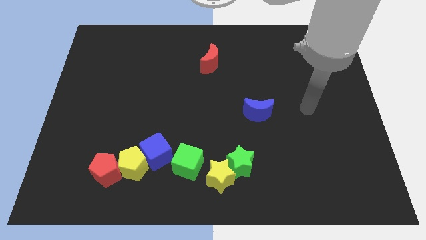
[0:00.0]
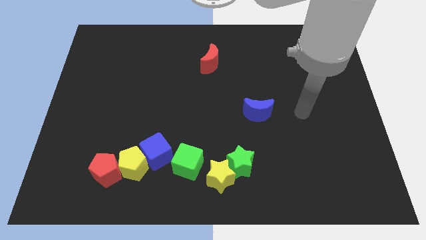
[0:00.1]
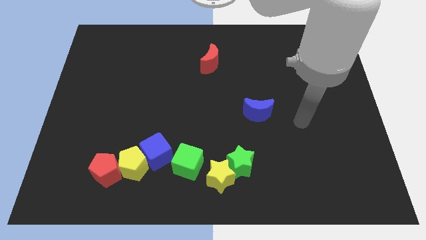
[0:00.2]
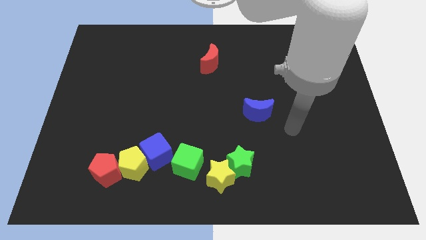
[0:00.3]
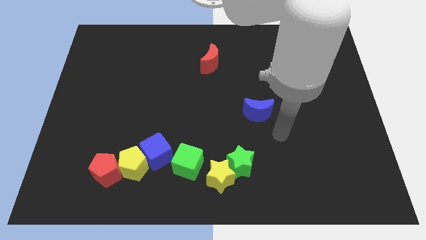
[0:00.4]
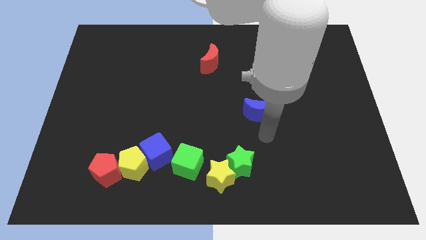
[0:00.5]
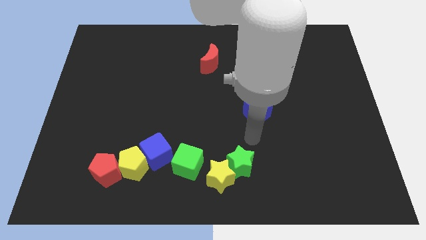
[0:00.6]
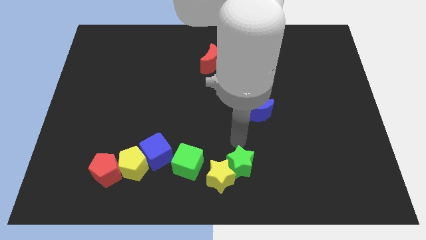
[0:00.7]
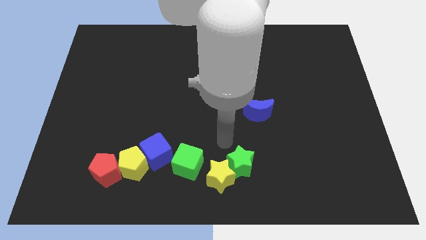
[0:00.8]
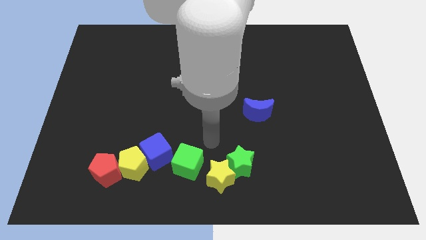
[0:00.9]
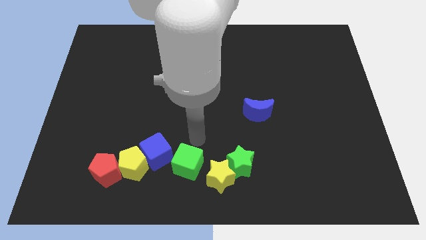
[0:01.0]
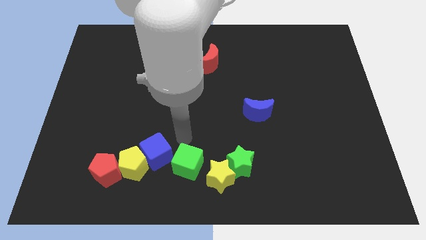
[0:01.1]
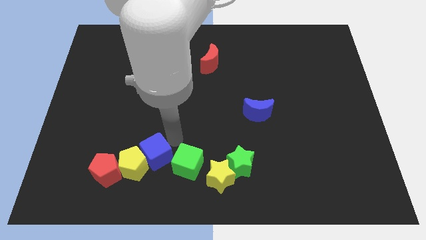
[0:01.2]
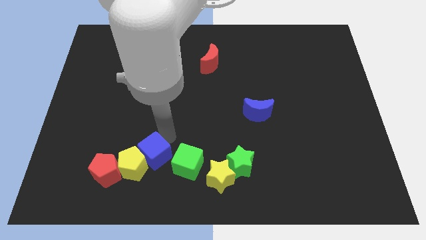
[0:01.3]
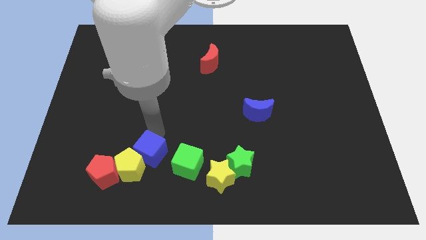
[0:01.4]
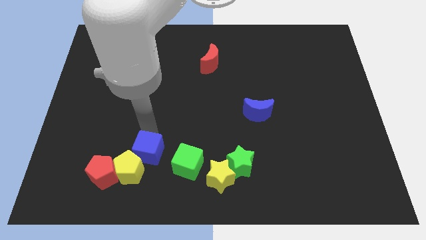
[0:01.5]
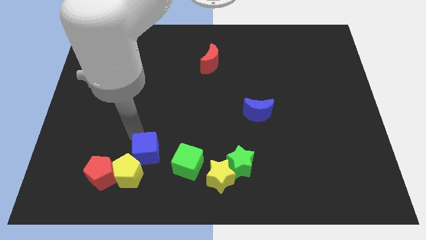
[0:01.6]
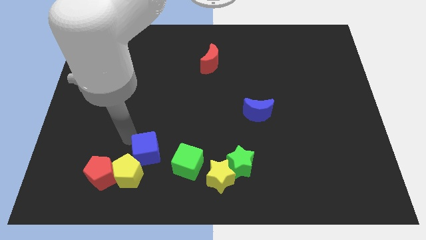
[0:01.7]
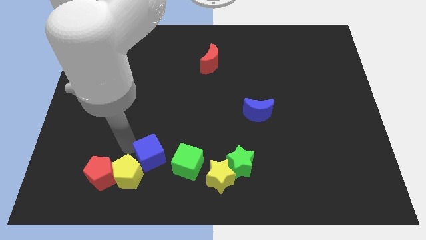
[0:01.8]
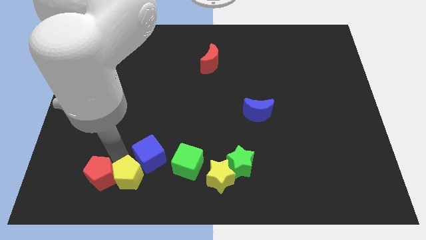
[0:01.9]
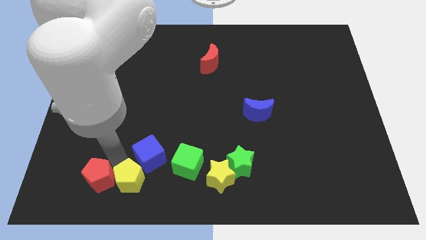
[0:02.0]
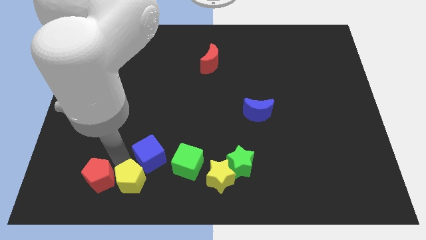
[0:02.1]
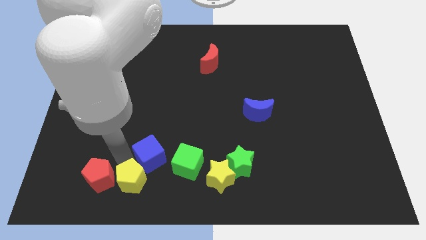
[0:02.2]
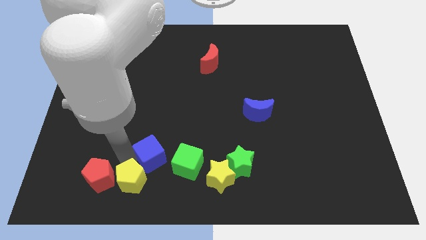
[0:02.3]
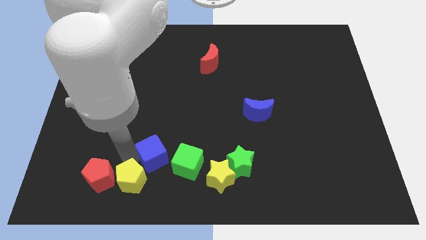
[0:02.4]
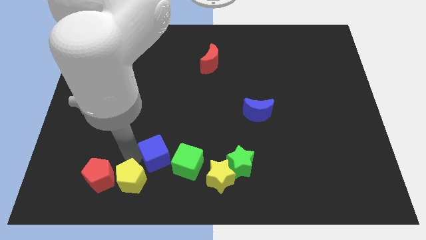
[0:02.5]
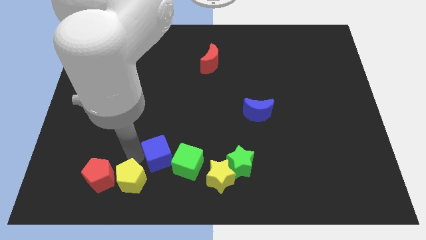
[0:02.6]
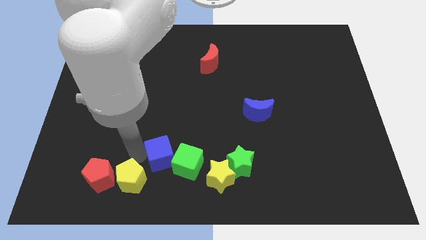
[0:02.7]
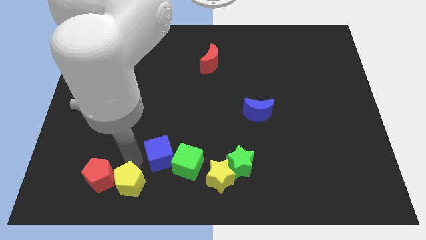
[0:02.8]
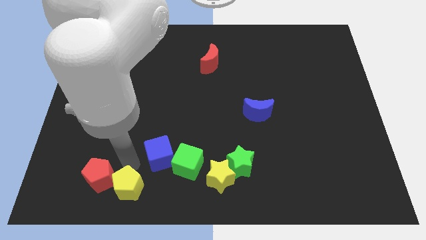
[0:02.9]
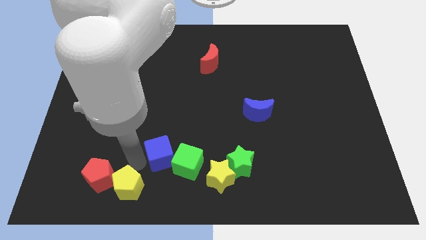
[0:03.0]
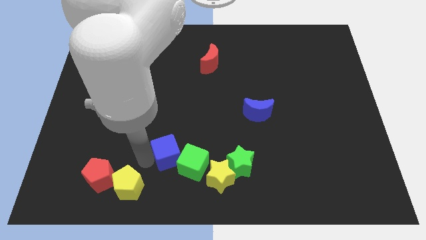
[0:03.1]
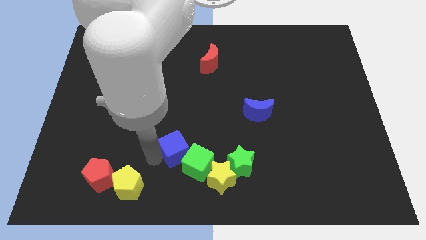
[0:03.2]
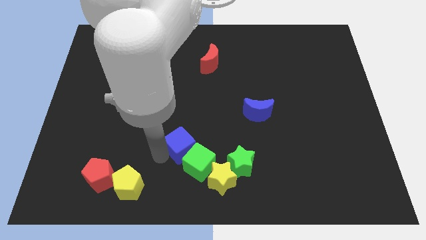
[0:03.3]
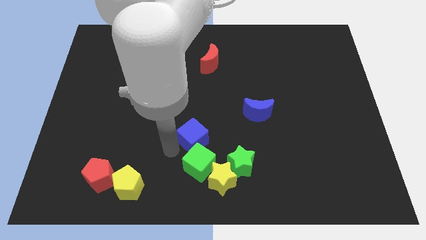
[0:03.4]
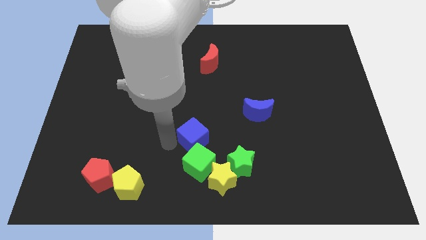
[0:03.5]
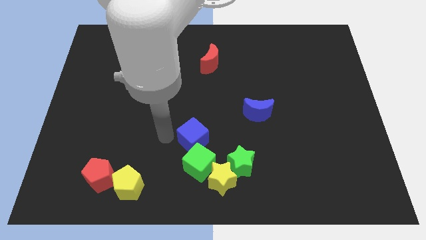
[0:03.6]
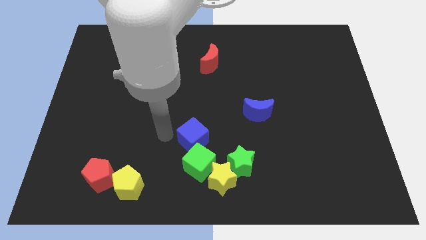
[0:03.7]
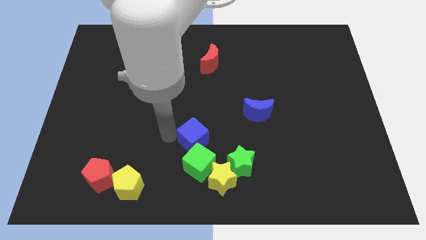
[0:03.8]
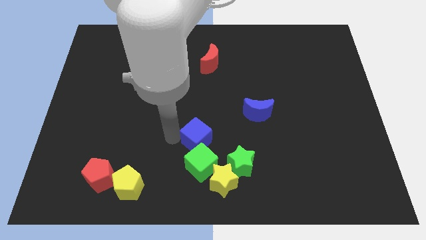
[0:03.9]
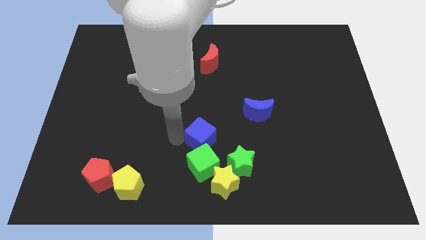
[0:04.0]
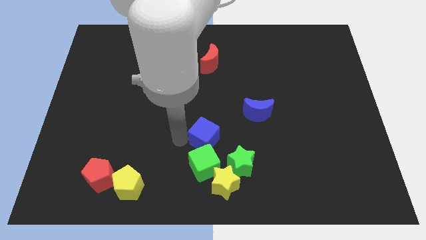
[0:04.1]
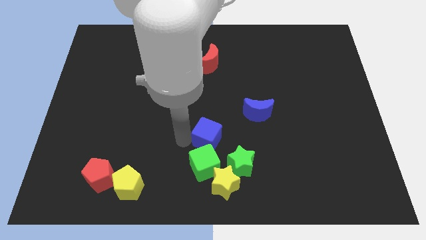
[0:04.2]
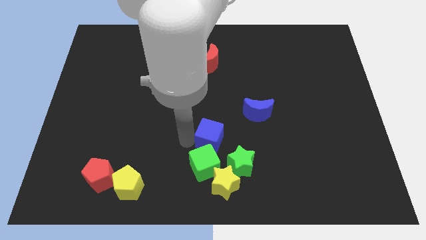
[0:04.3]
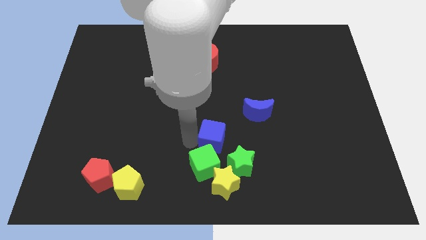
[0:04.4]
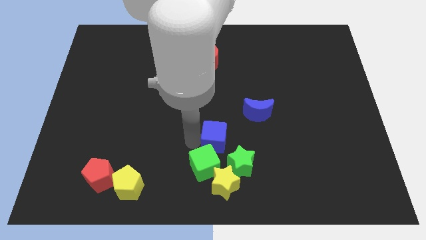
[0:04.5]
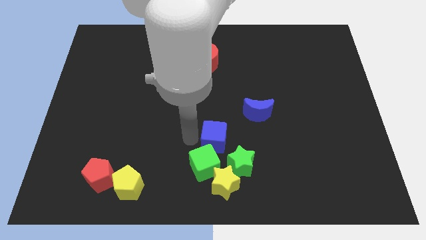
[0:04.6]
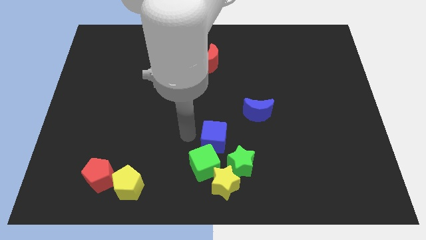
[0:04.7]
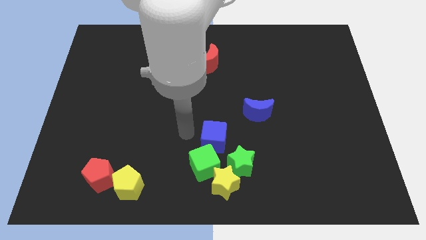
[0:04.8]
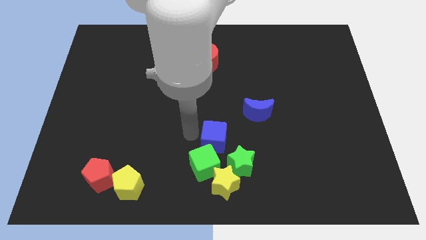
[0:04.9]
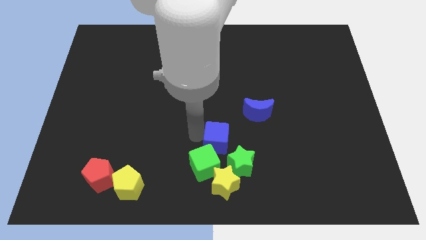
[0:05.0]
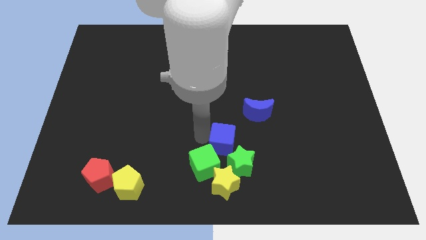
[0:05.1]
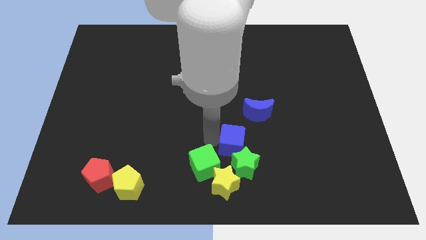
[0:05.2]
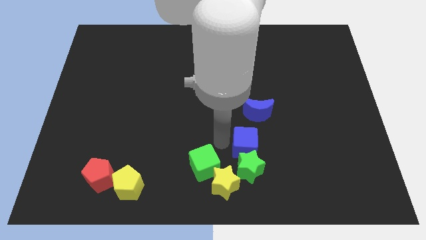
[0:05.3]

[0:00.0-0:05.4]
move the blue cube to the top right side of the green star

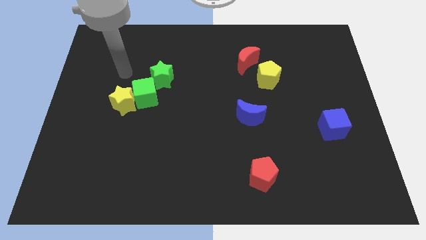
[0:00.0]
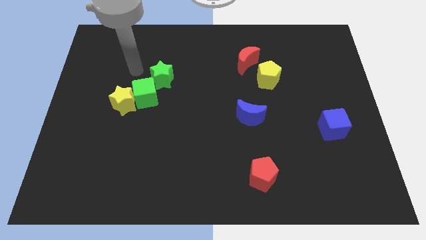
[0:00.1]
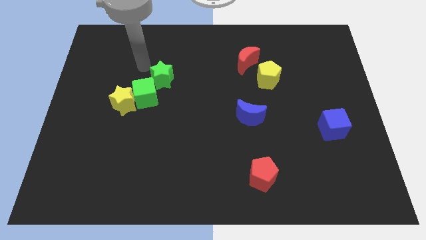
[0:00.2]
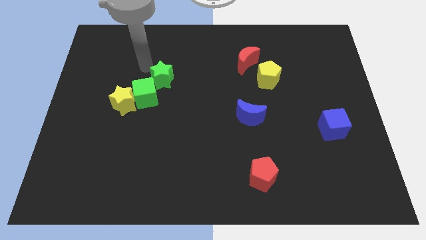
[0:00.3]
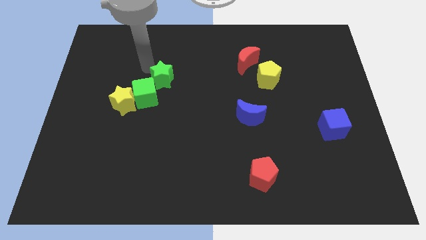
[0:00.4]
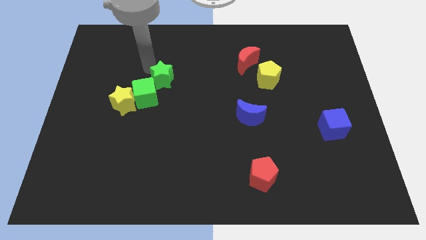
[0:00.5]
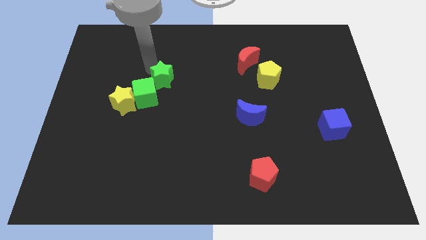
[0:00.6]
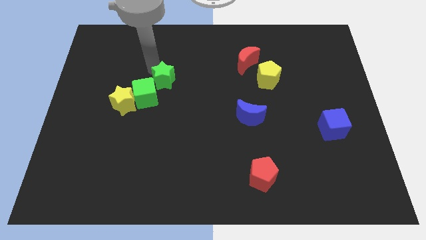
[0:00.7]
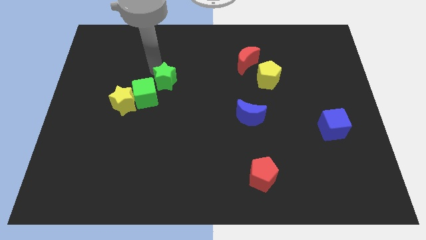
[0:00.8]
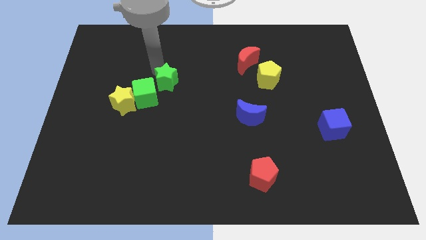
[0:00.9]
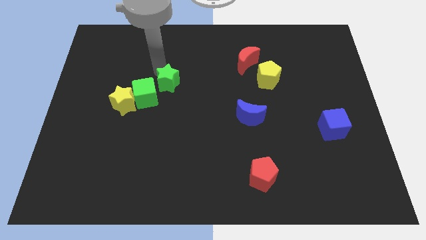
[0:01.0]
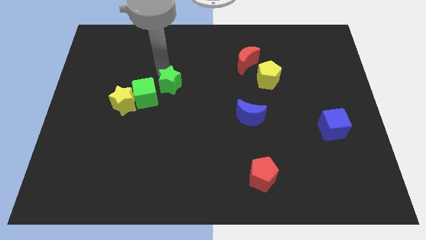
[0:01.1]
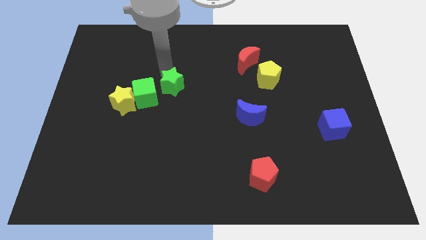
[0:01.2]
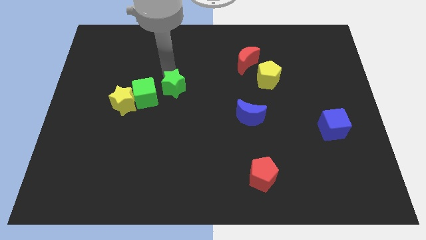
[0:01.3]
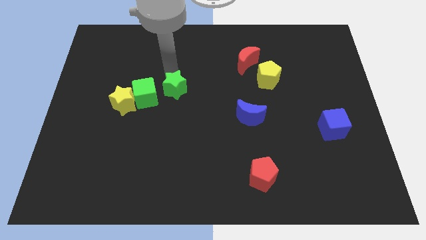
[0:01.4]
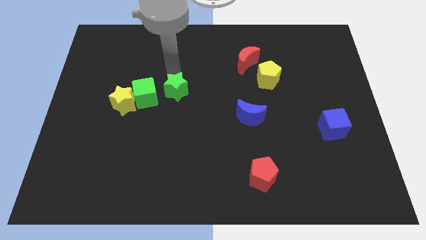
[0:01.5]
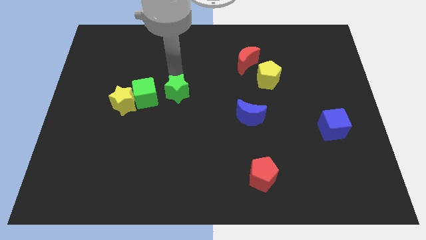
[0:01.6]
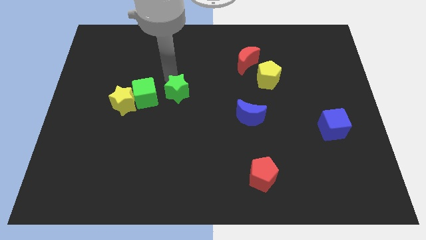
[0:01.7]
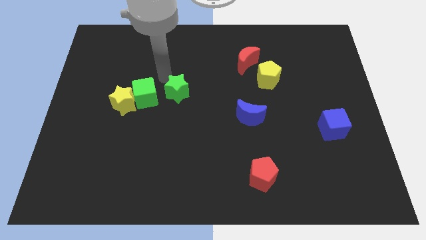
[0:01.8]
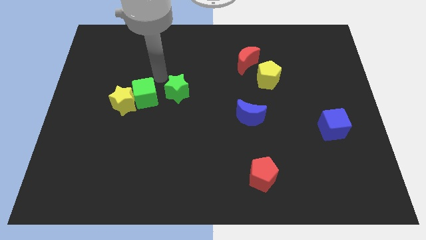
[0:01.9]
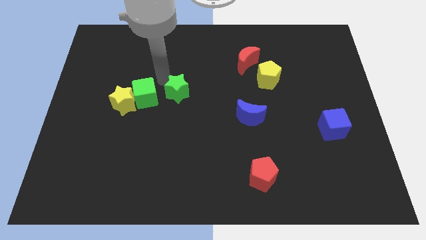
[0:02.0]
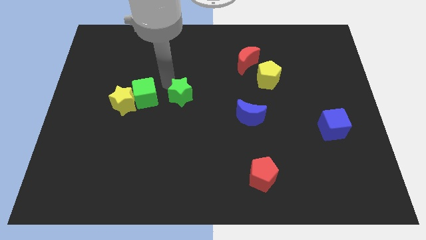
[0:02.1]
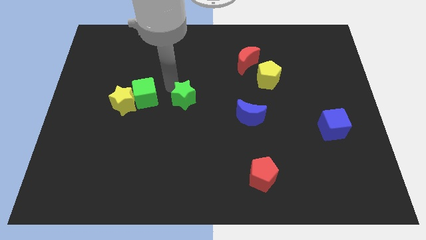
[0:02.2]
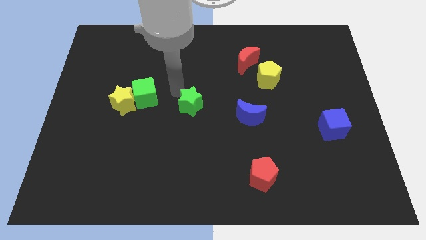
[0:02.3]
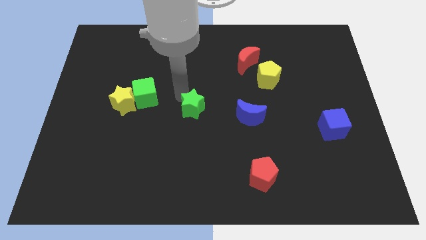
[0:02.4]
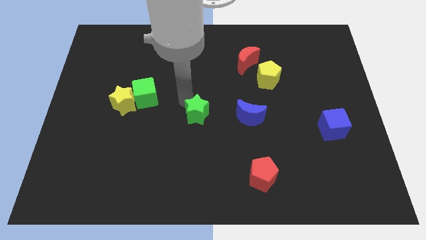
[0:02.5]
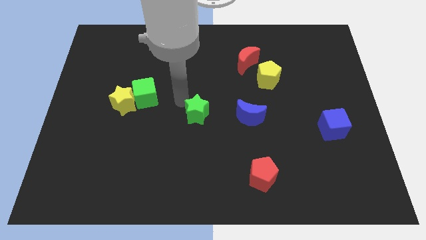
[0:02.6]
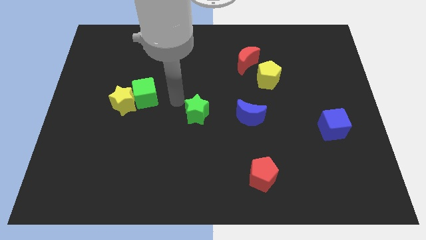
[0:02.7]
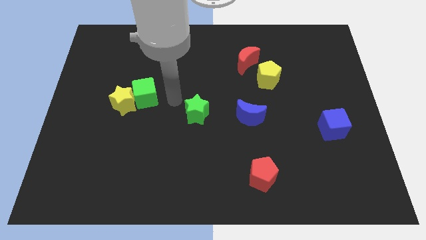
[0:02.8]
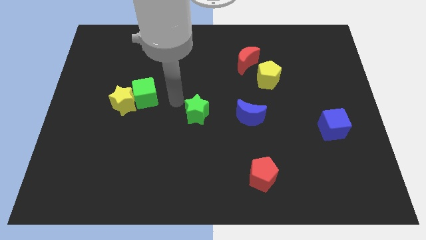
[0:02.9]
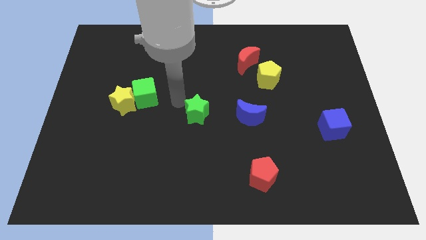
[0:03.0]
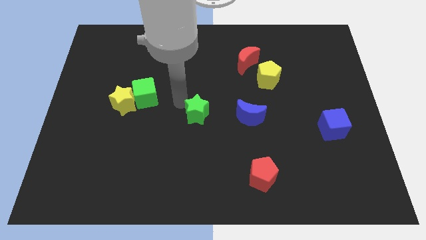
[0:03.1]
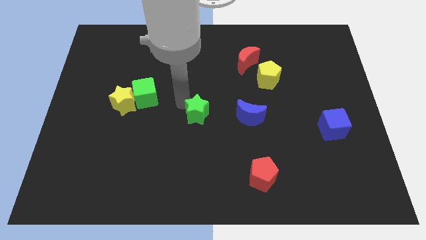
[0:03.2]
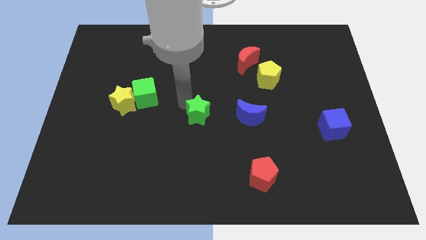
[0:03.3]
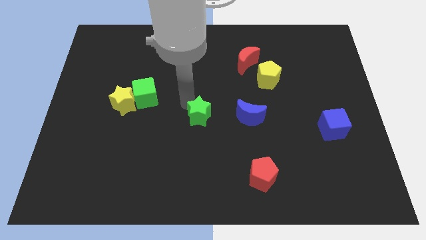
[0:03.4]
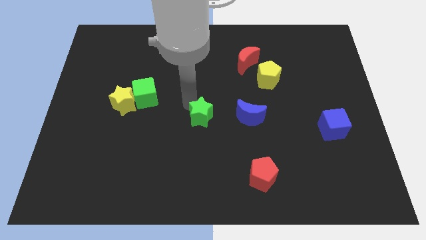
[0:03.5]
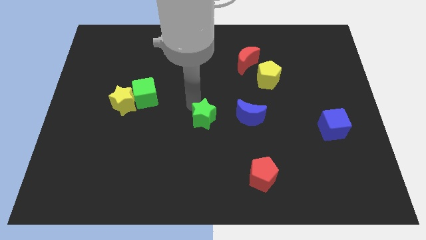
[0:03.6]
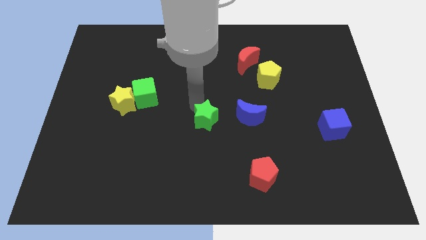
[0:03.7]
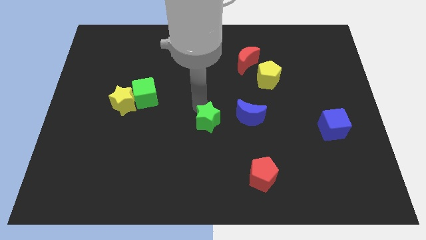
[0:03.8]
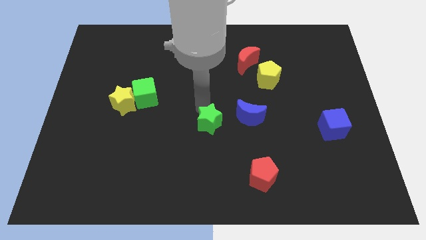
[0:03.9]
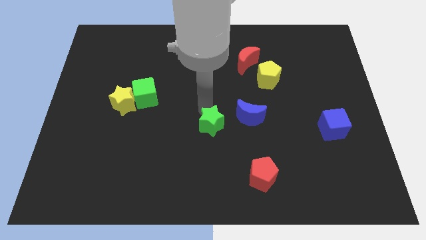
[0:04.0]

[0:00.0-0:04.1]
put the green star to the bottom left of the blue moon
